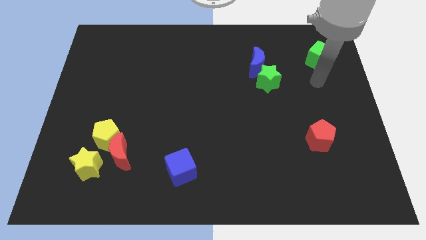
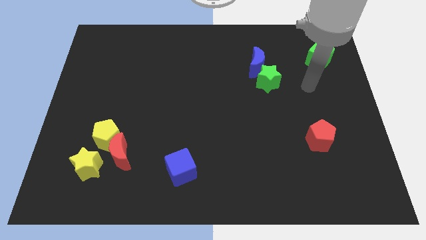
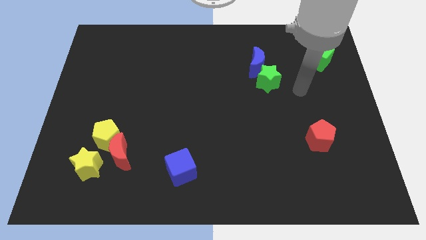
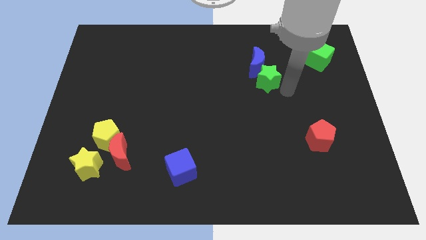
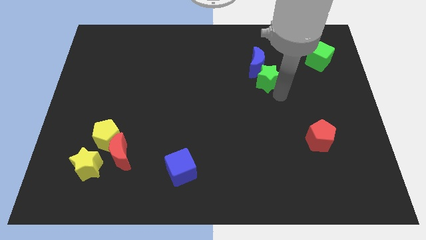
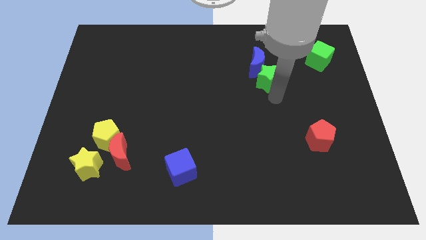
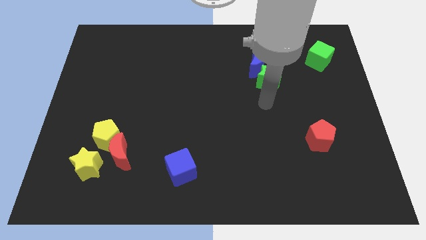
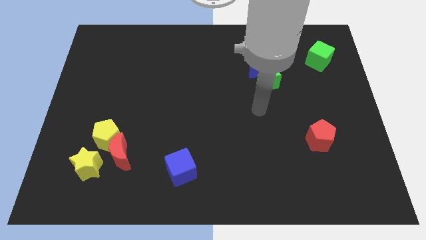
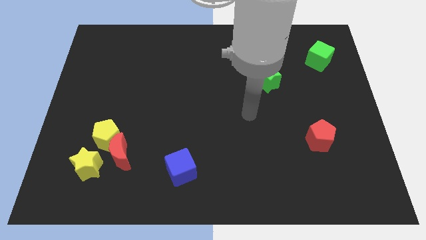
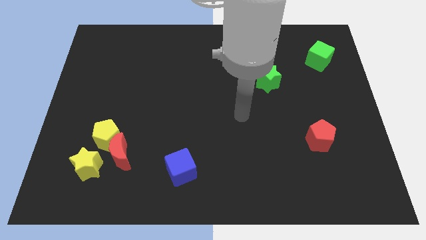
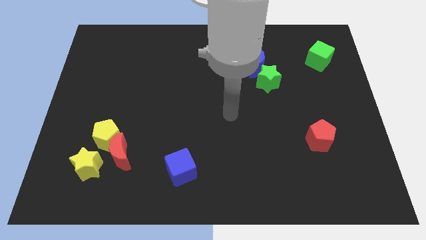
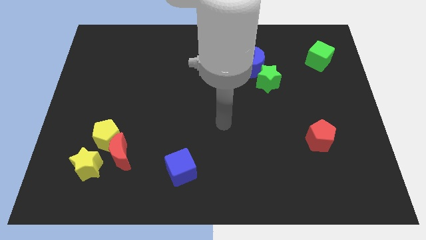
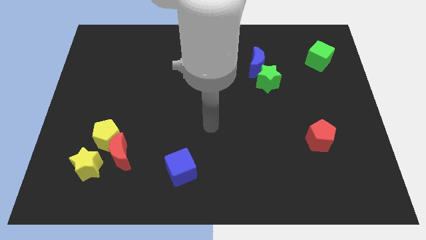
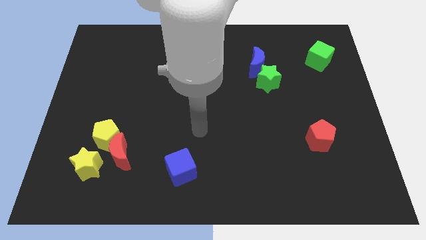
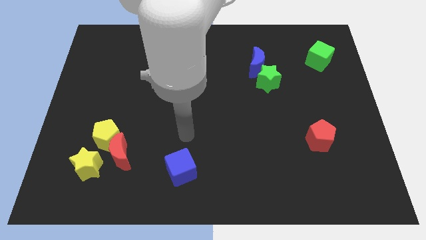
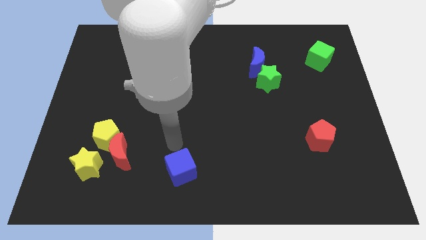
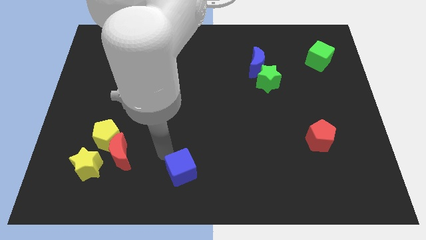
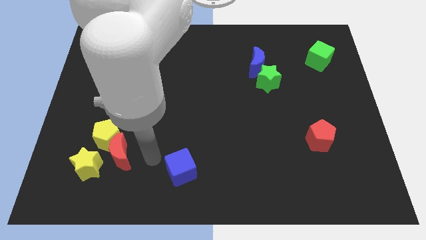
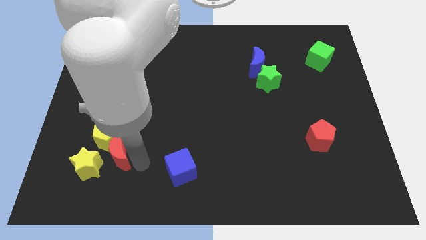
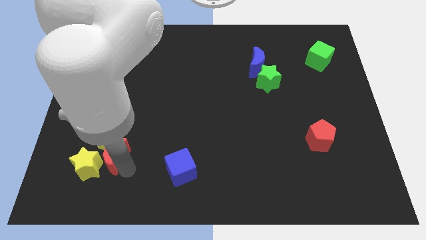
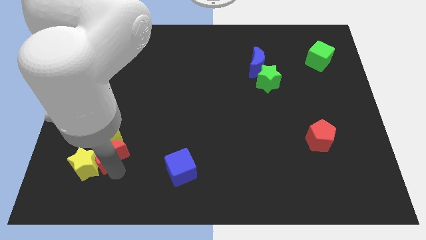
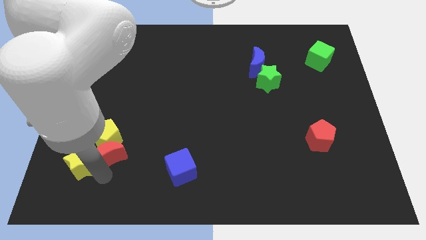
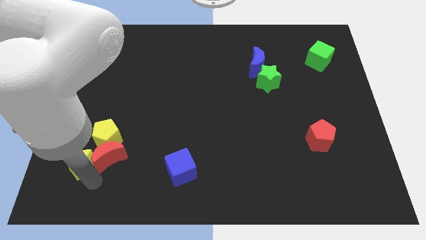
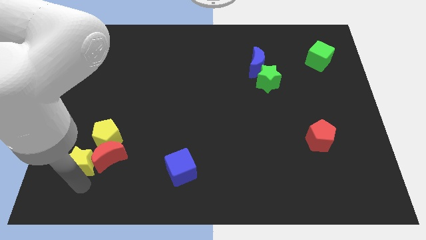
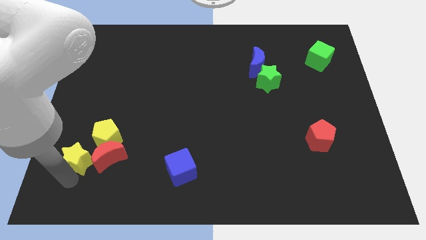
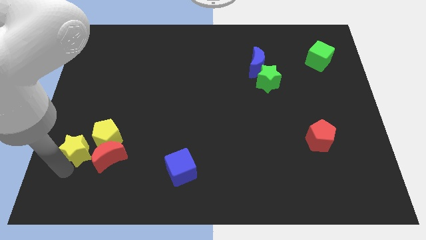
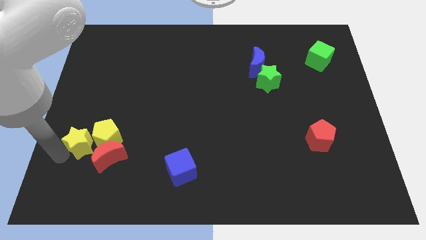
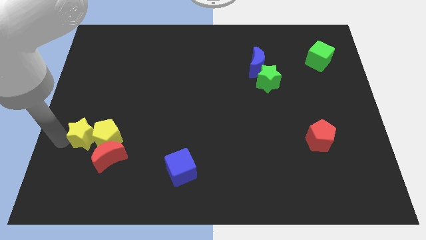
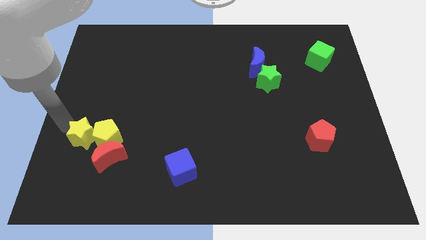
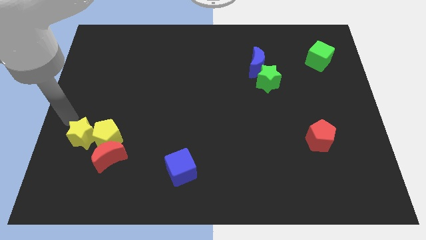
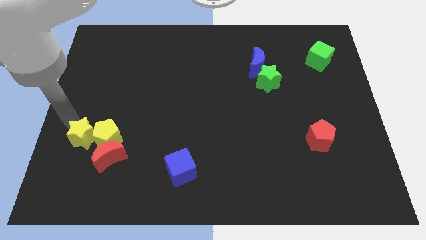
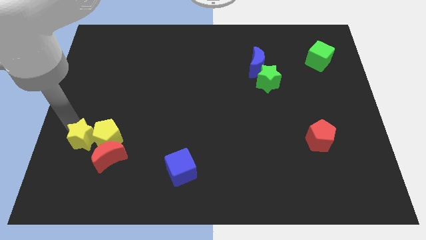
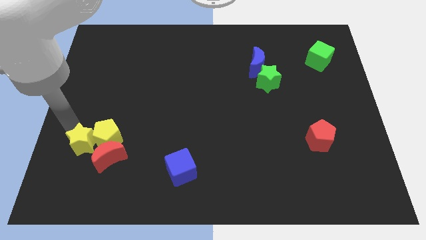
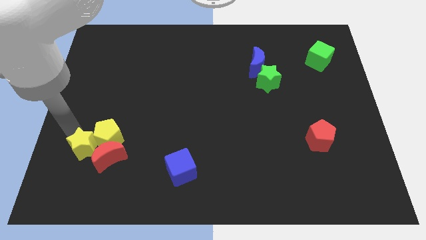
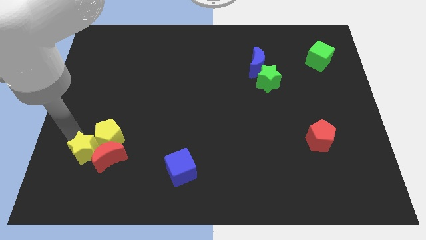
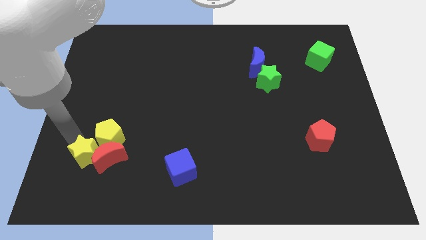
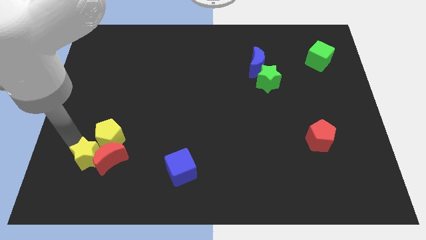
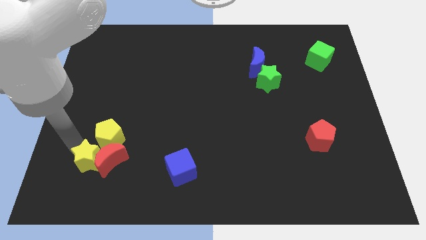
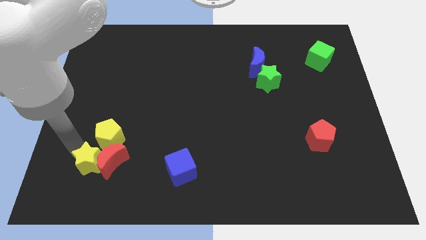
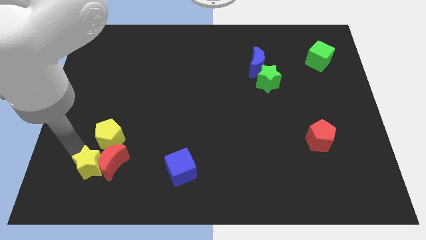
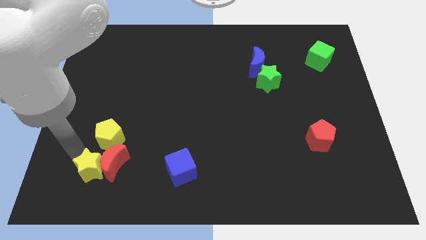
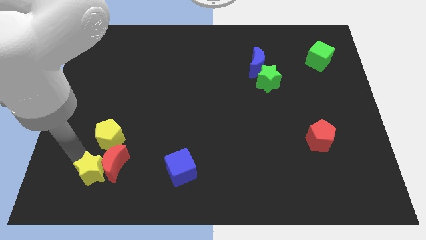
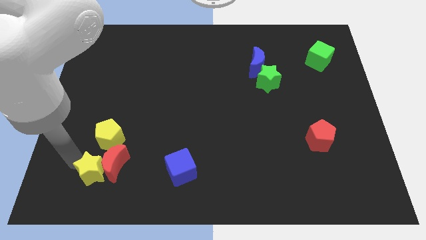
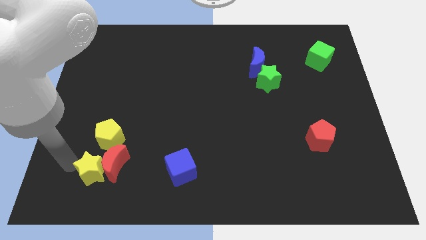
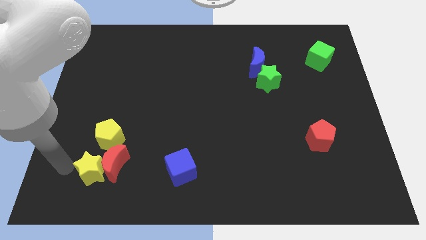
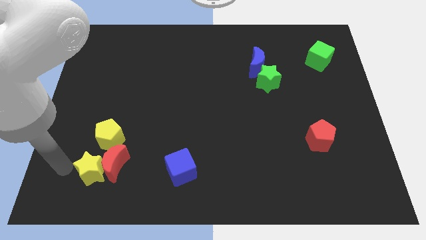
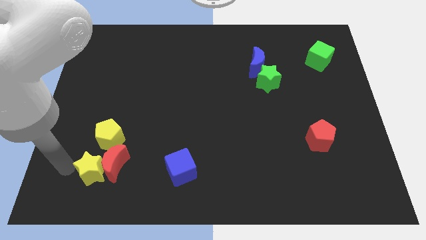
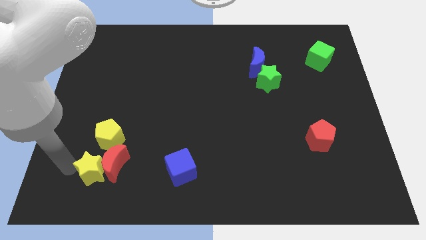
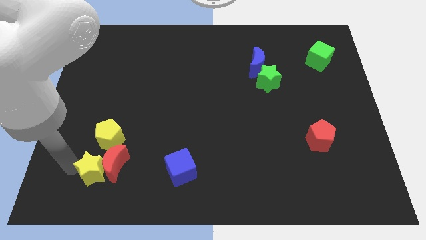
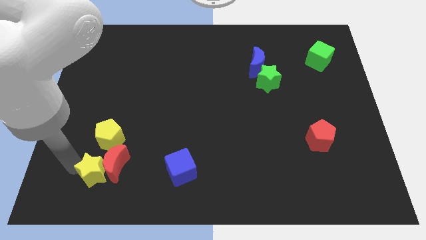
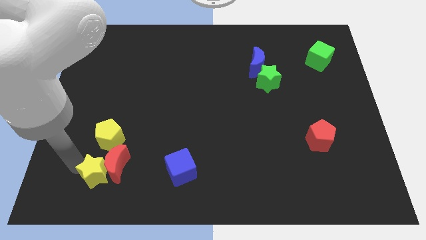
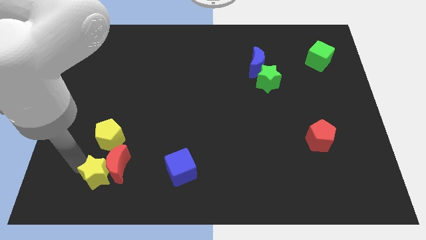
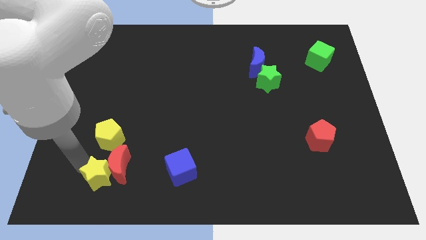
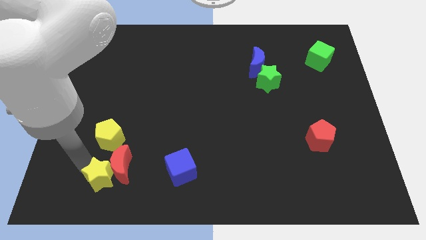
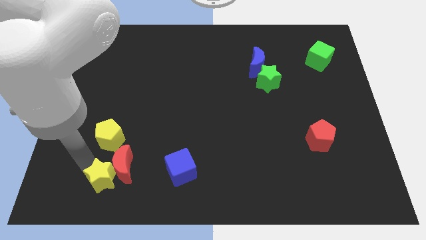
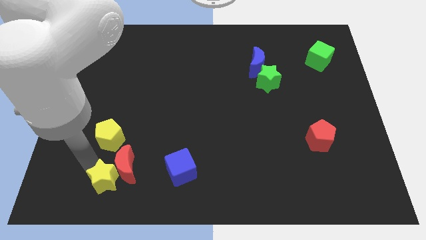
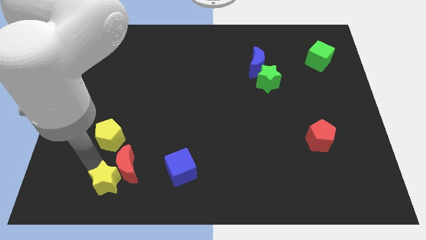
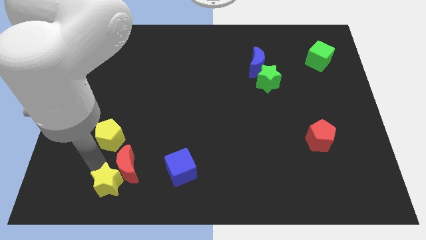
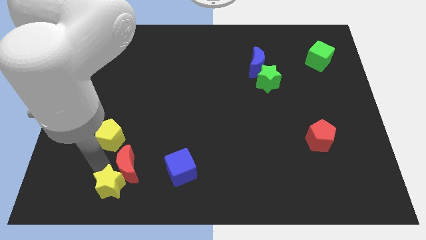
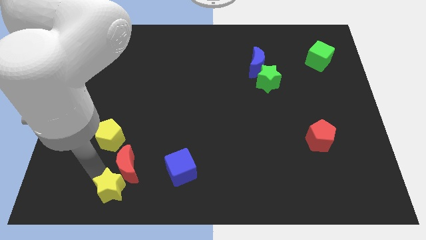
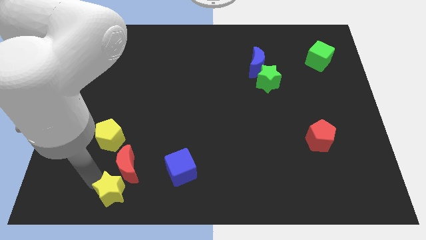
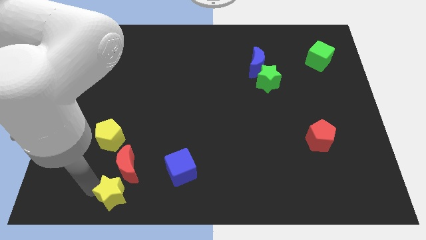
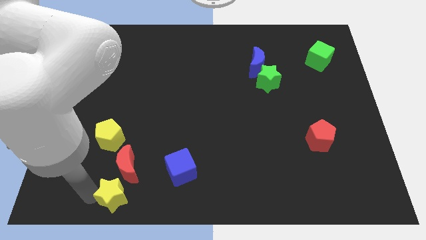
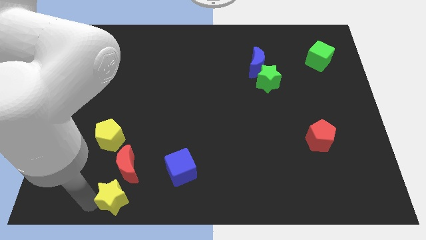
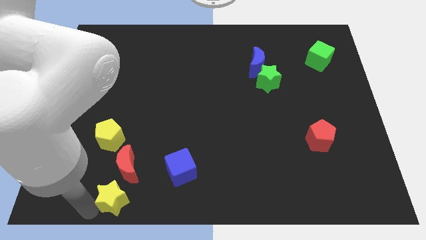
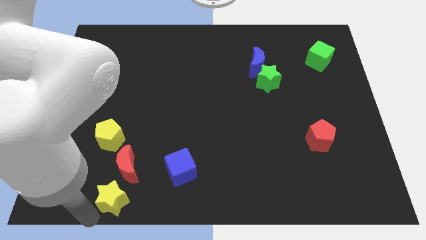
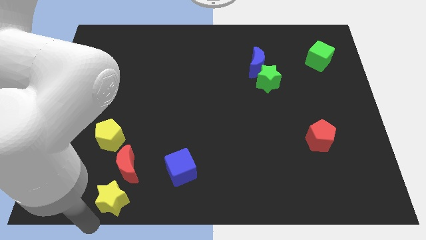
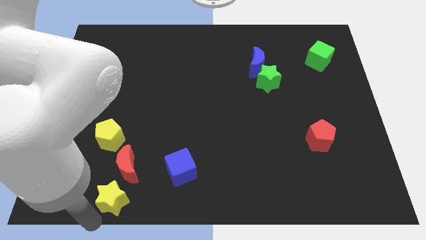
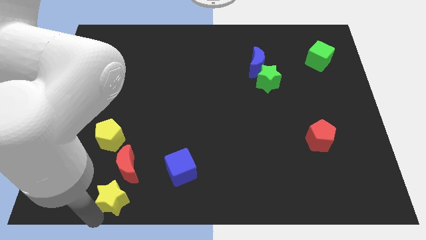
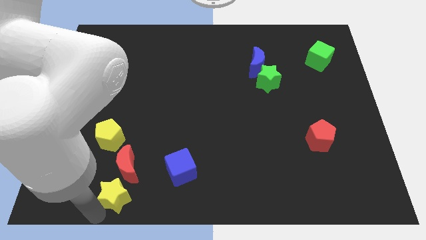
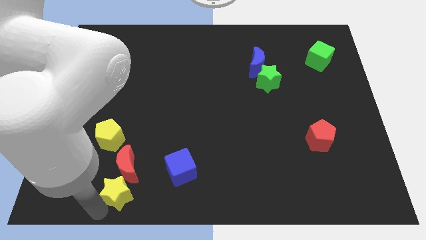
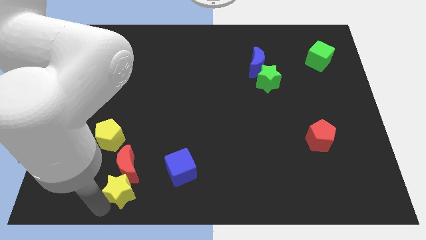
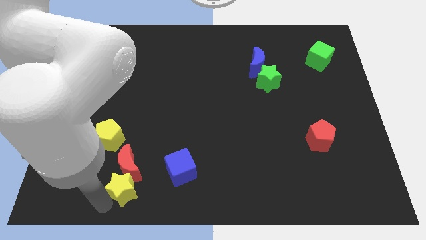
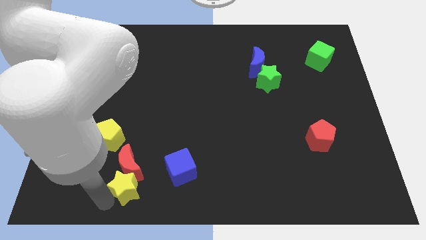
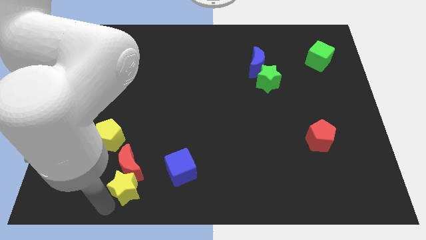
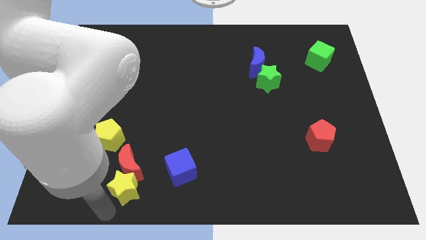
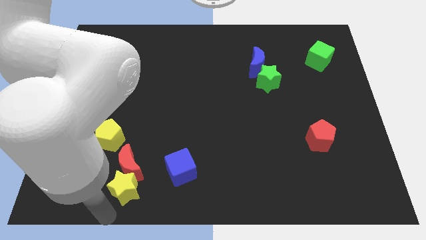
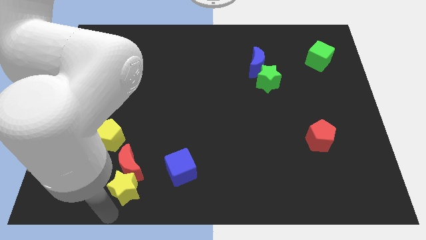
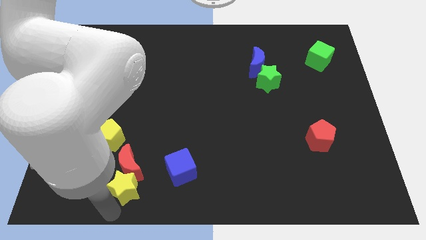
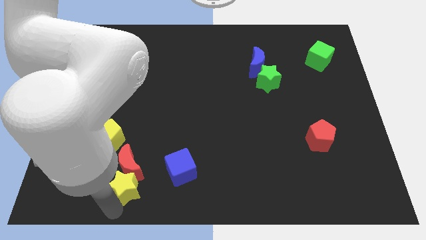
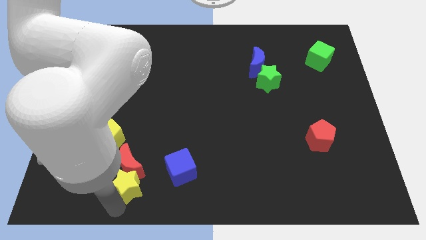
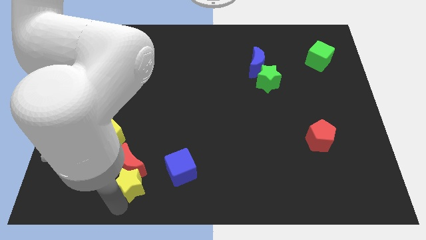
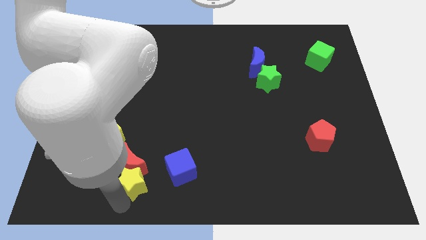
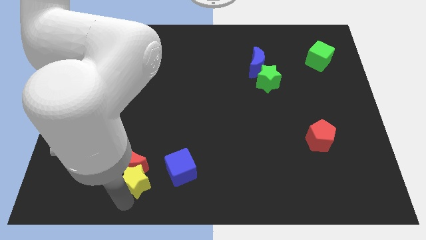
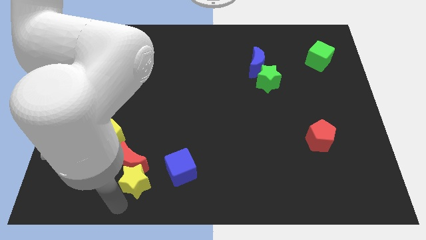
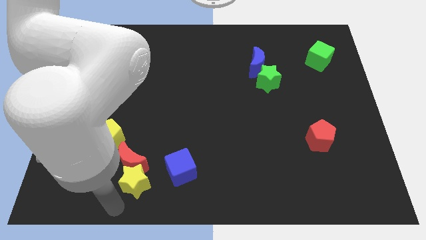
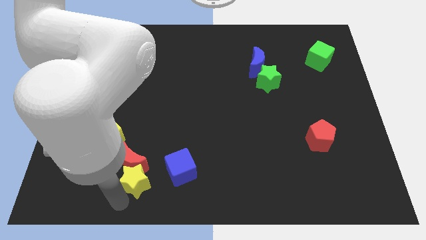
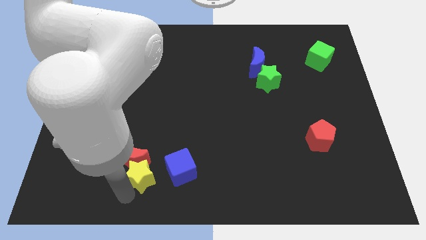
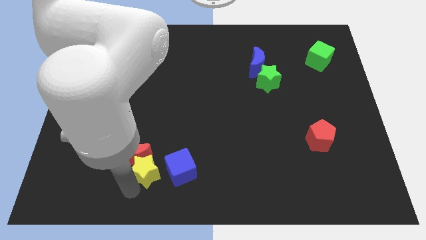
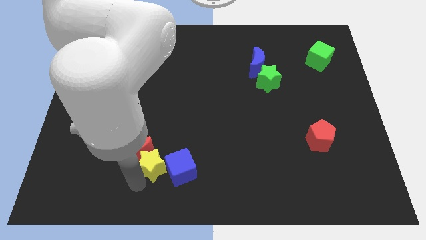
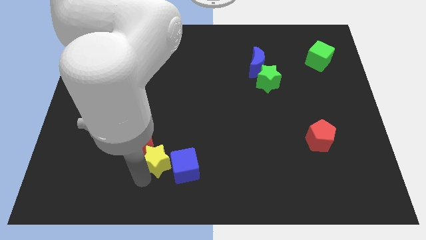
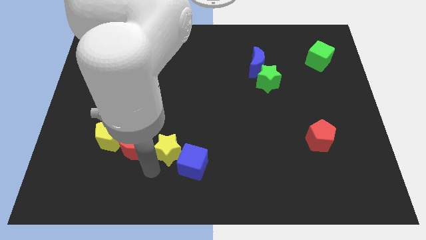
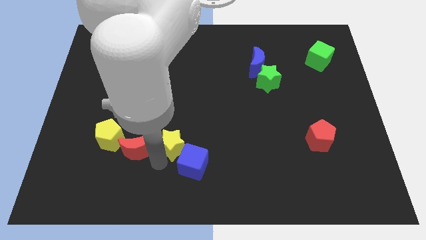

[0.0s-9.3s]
push the yellow star above the blue cube
